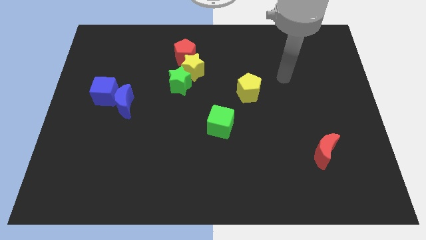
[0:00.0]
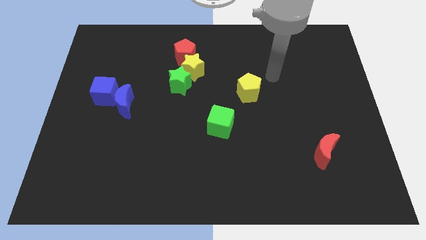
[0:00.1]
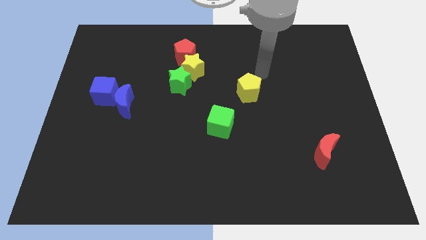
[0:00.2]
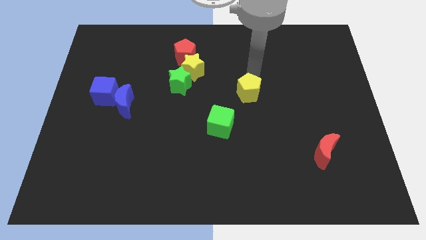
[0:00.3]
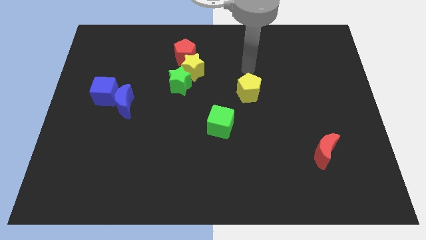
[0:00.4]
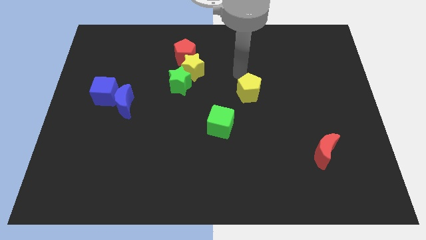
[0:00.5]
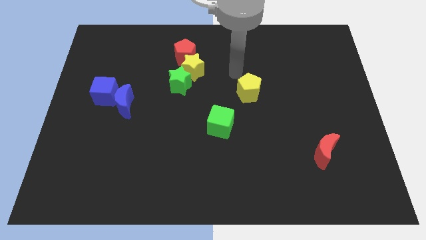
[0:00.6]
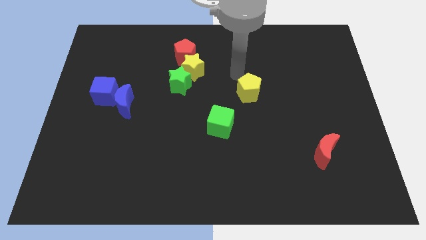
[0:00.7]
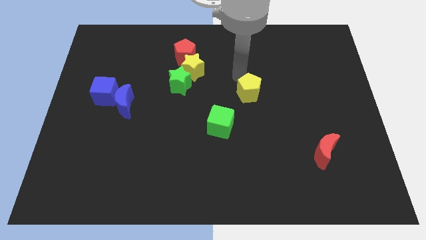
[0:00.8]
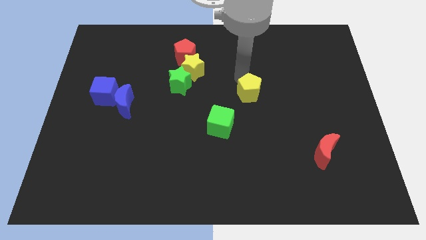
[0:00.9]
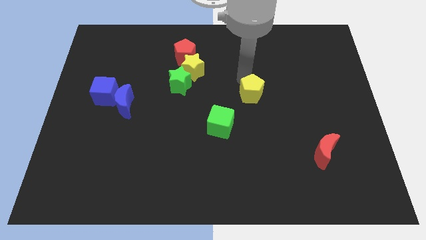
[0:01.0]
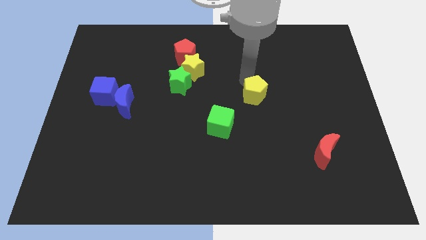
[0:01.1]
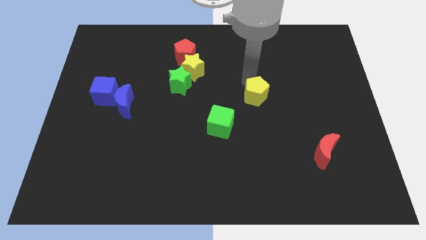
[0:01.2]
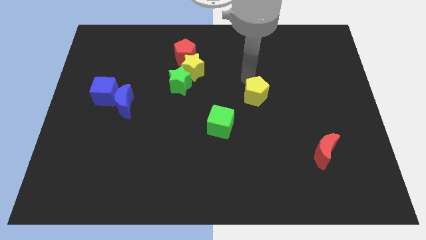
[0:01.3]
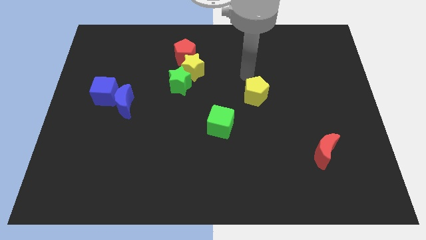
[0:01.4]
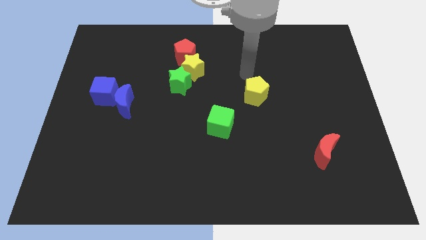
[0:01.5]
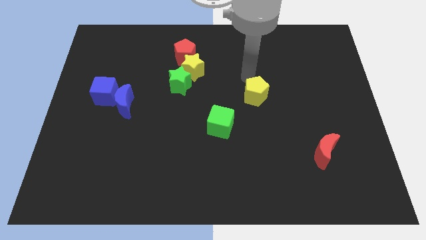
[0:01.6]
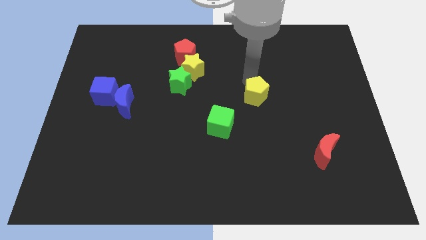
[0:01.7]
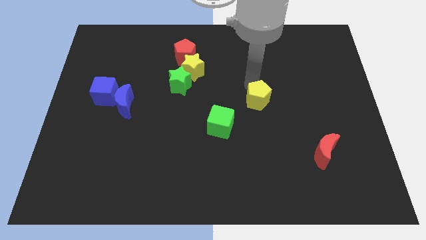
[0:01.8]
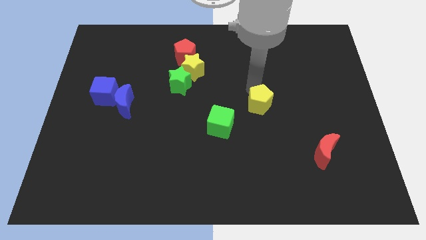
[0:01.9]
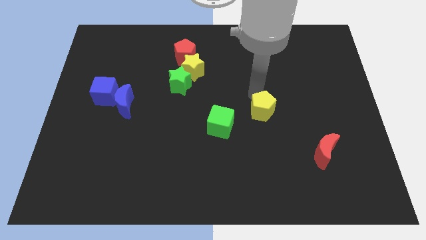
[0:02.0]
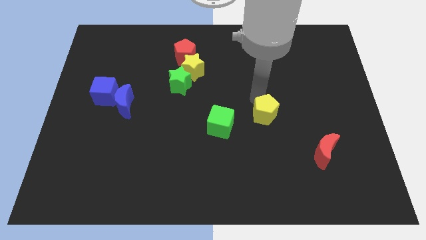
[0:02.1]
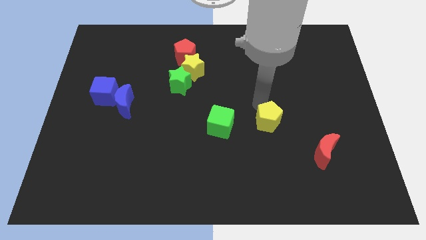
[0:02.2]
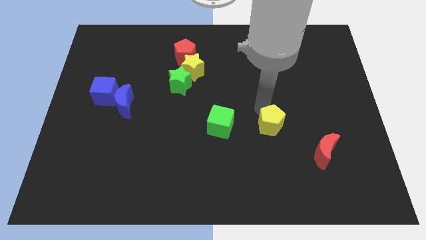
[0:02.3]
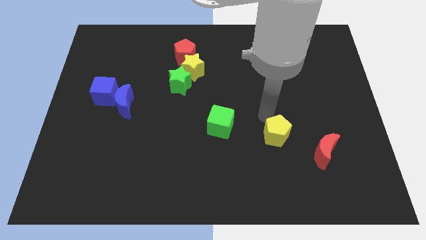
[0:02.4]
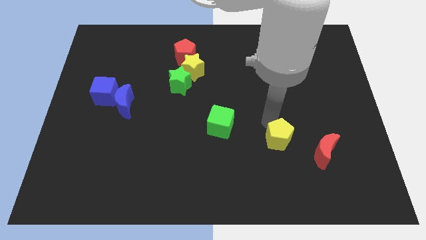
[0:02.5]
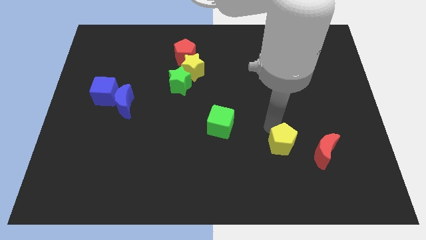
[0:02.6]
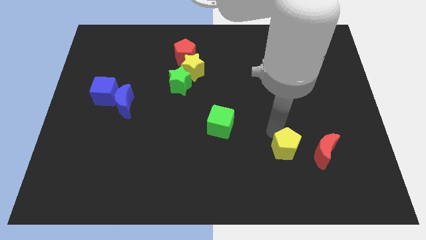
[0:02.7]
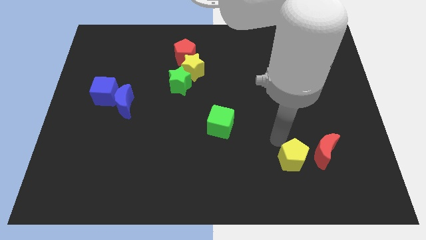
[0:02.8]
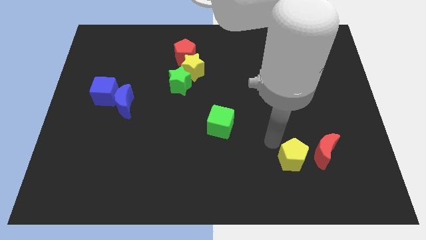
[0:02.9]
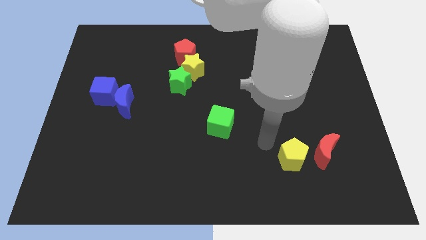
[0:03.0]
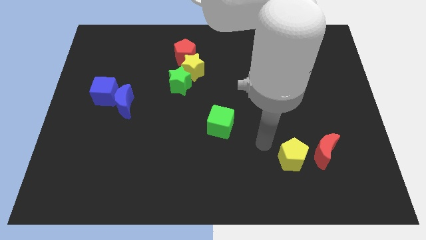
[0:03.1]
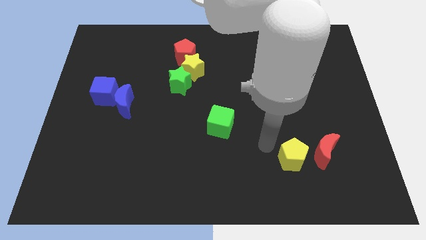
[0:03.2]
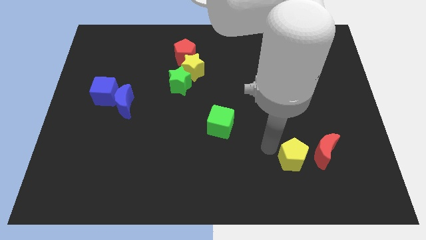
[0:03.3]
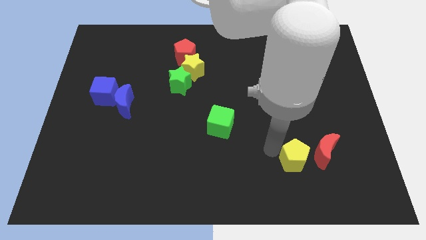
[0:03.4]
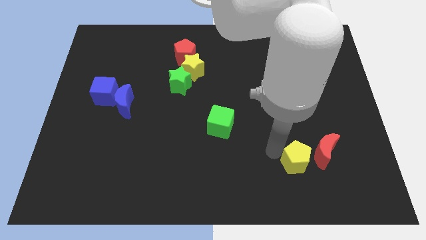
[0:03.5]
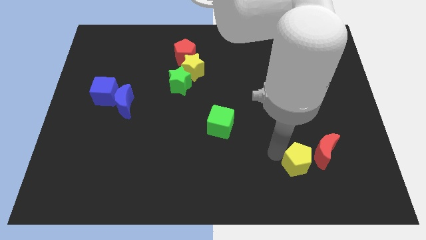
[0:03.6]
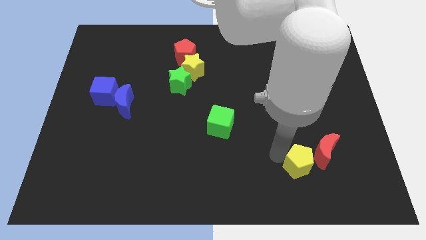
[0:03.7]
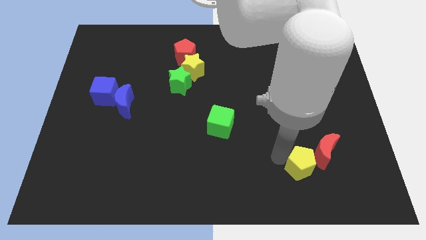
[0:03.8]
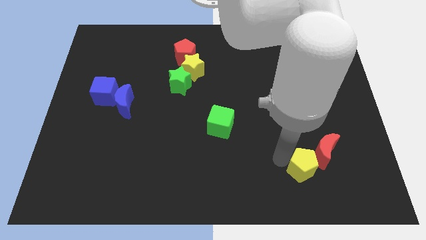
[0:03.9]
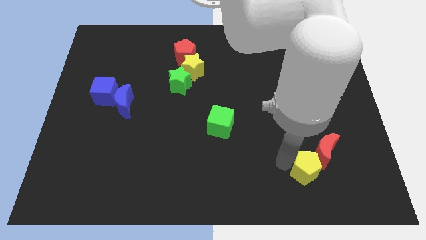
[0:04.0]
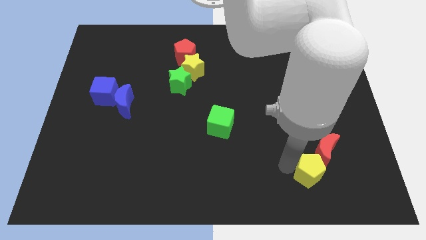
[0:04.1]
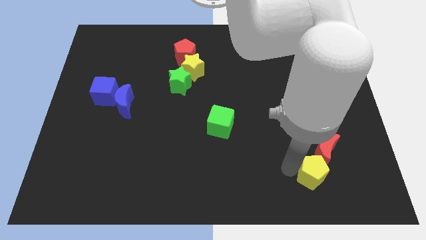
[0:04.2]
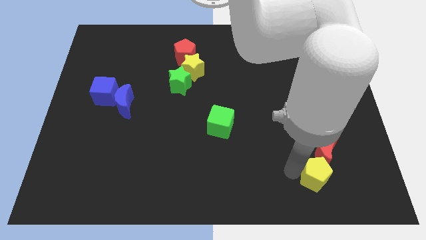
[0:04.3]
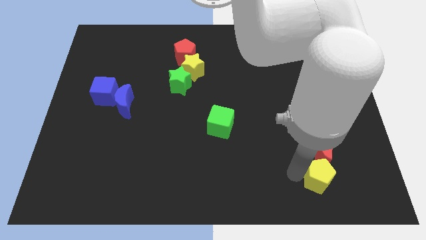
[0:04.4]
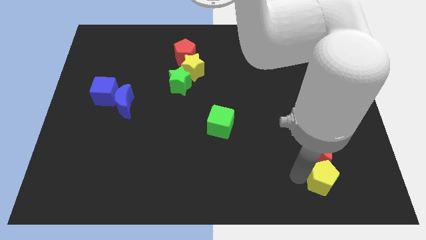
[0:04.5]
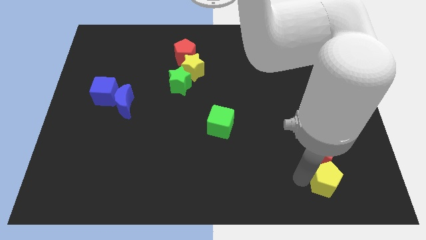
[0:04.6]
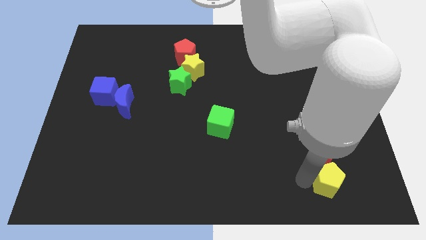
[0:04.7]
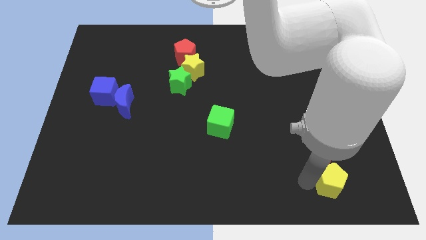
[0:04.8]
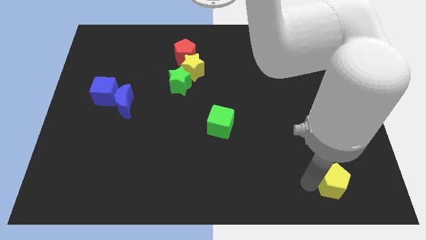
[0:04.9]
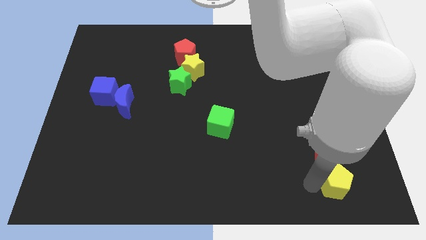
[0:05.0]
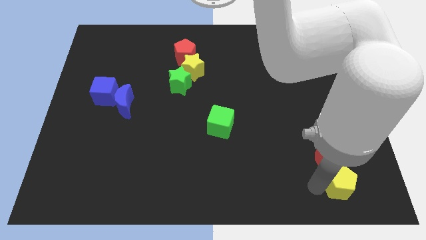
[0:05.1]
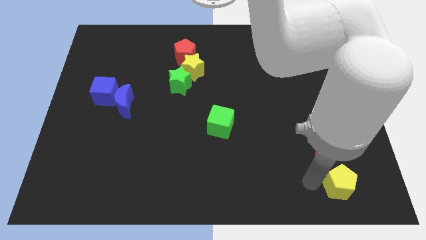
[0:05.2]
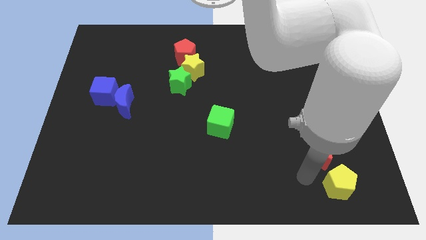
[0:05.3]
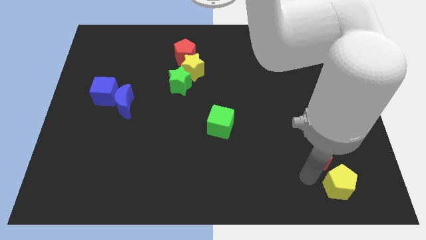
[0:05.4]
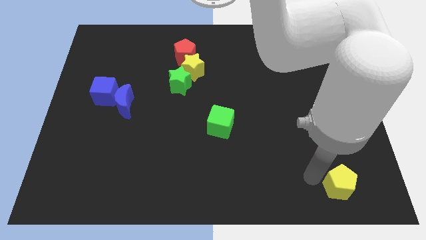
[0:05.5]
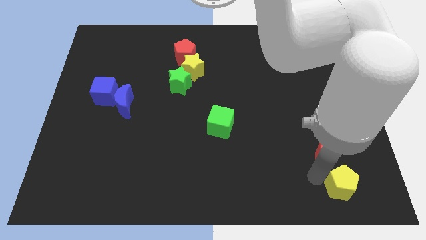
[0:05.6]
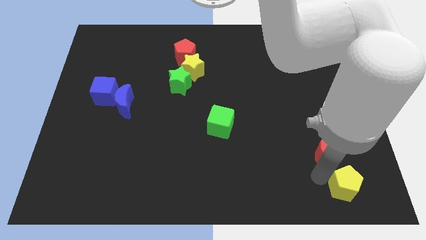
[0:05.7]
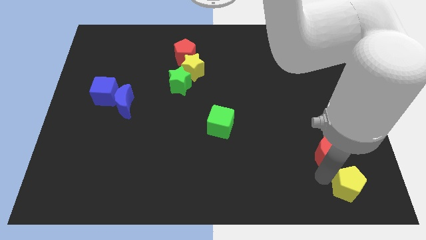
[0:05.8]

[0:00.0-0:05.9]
push the yellow pentagon to the lower right corner

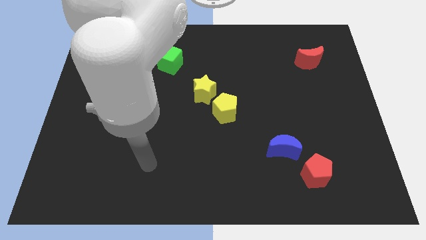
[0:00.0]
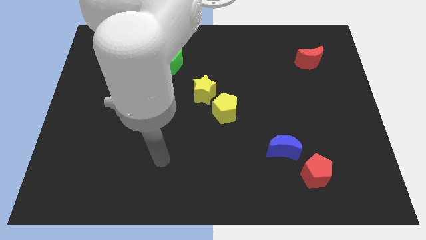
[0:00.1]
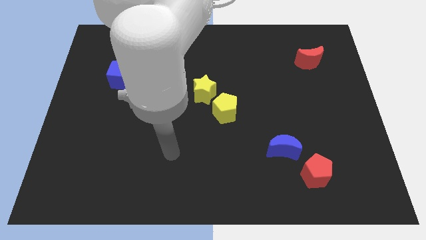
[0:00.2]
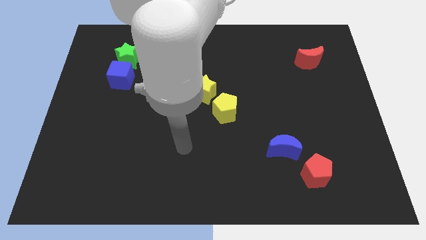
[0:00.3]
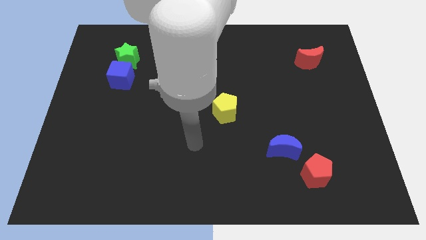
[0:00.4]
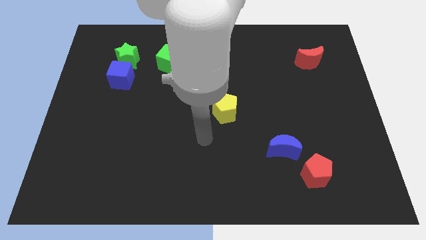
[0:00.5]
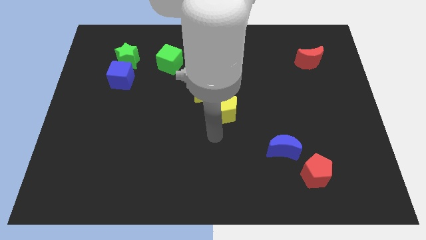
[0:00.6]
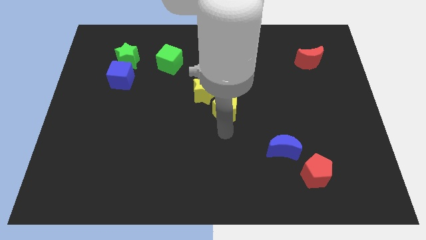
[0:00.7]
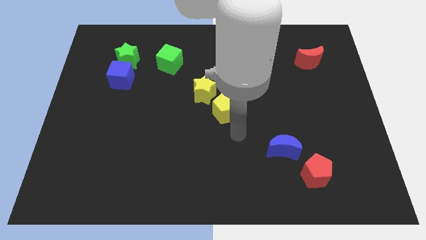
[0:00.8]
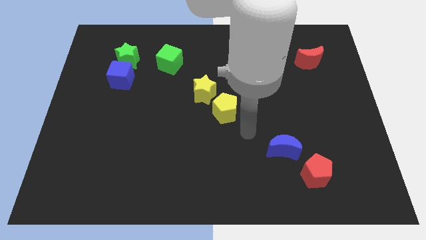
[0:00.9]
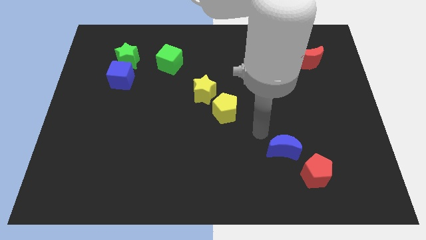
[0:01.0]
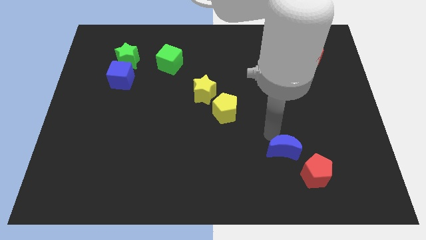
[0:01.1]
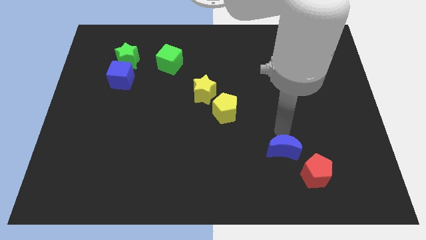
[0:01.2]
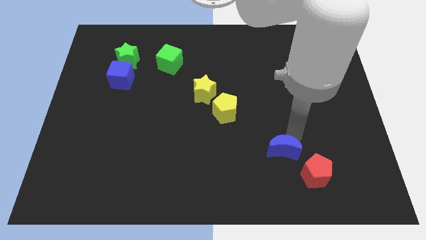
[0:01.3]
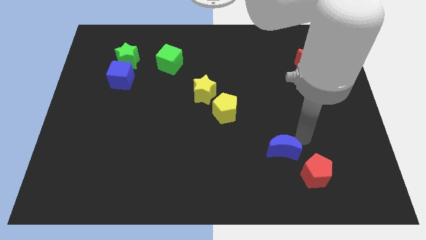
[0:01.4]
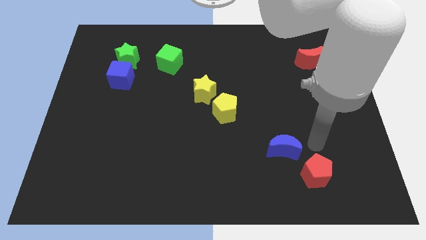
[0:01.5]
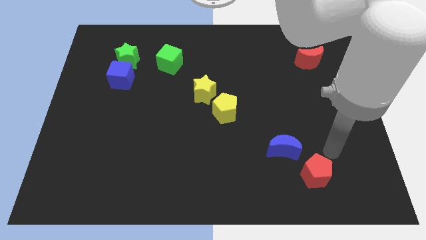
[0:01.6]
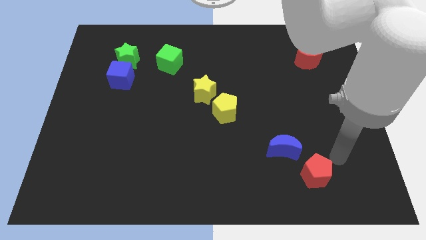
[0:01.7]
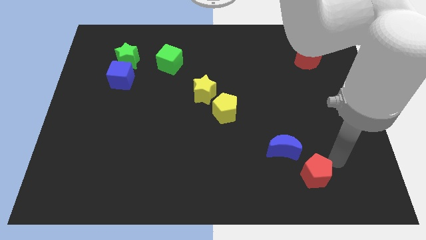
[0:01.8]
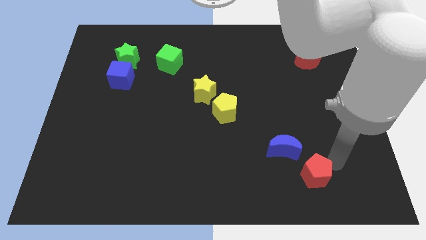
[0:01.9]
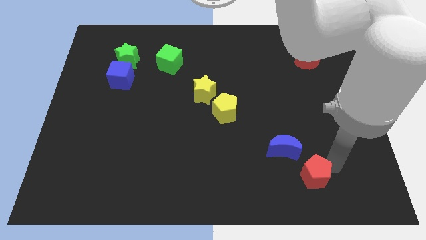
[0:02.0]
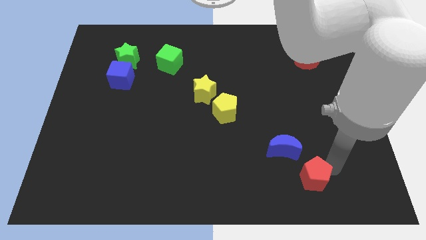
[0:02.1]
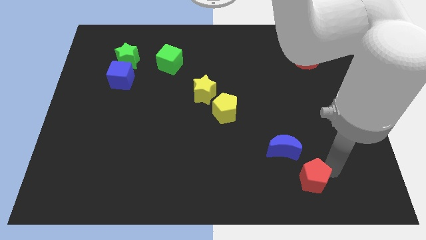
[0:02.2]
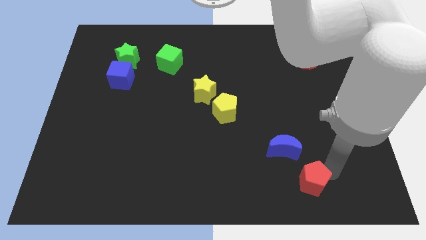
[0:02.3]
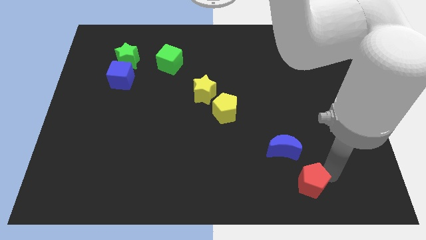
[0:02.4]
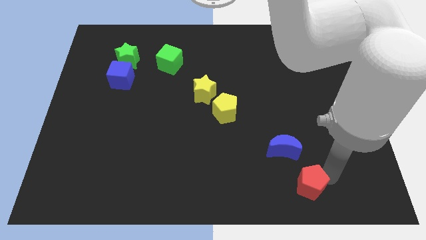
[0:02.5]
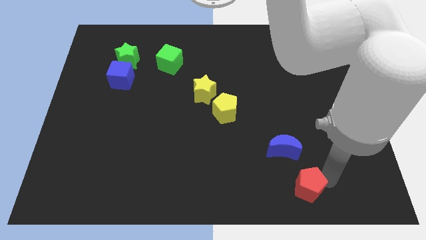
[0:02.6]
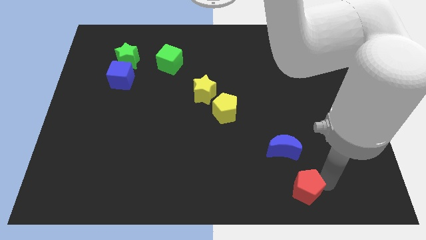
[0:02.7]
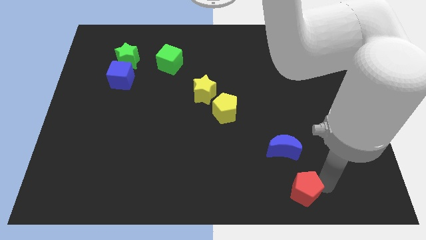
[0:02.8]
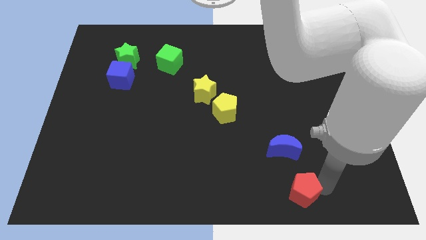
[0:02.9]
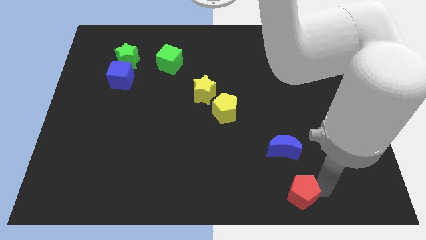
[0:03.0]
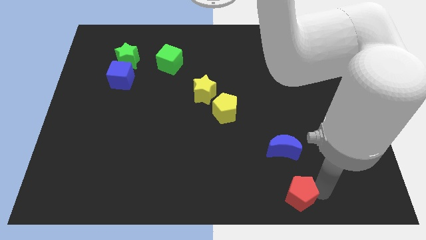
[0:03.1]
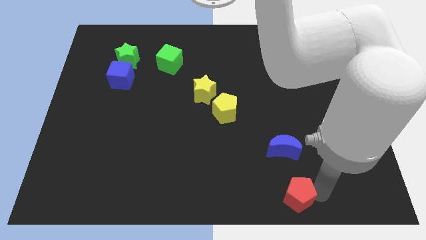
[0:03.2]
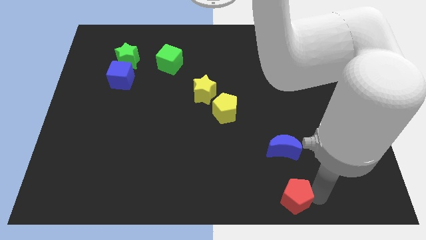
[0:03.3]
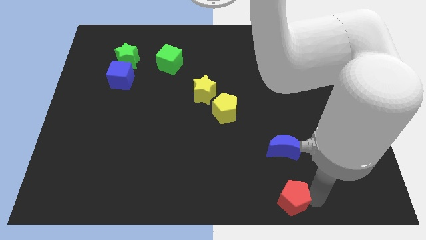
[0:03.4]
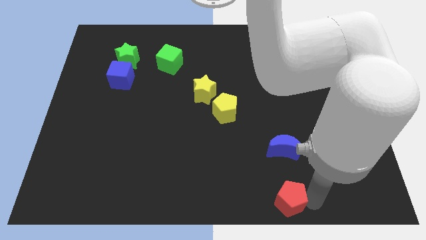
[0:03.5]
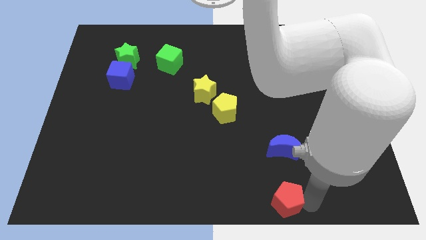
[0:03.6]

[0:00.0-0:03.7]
slide the red pentagon to the bottom side
